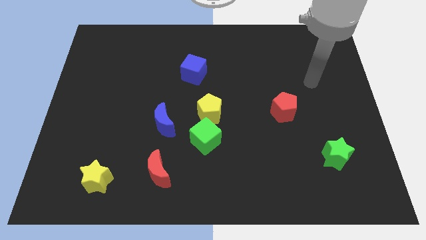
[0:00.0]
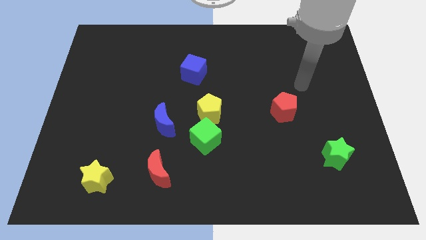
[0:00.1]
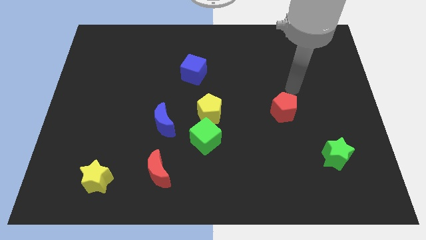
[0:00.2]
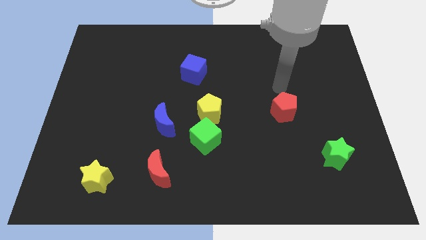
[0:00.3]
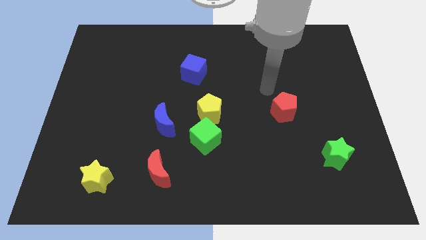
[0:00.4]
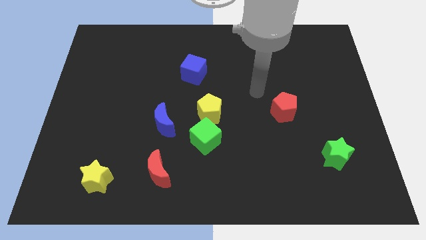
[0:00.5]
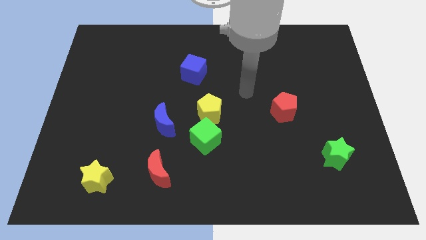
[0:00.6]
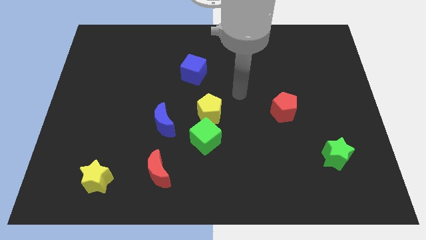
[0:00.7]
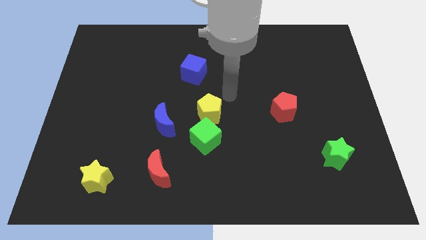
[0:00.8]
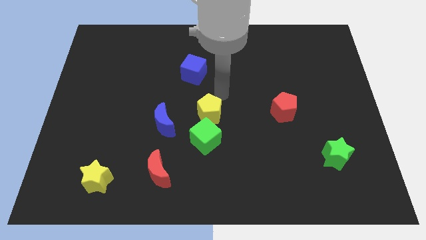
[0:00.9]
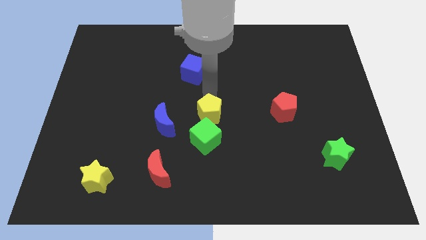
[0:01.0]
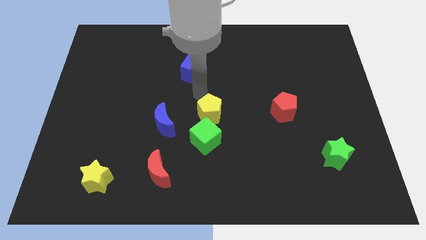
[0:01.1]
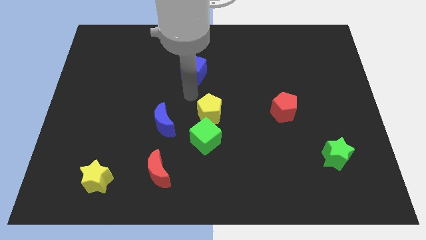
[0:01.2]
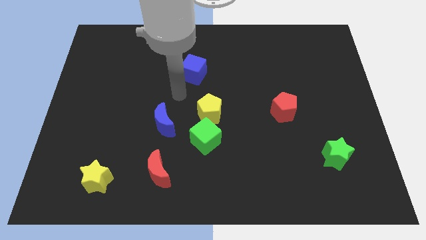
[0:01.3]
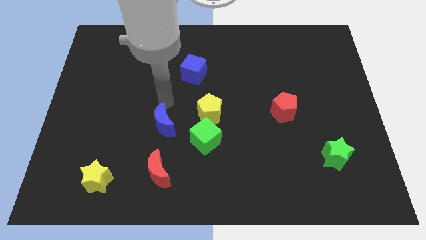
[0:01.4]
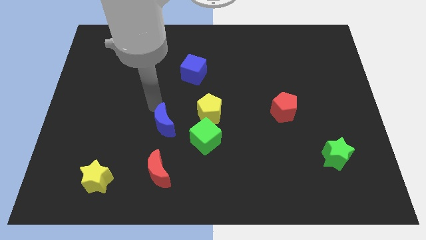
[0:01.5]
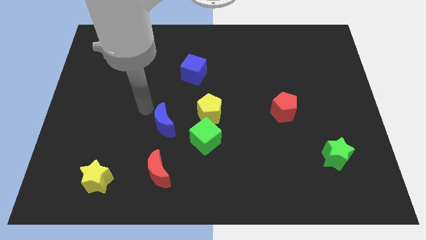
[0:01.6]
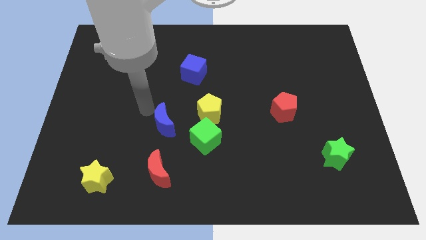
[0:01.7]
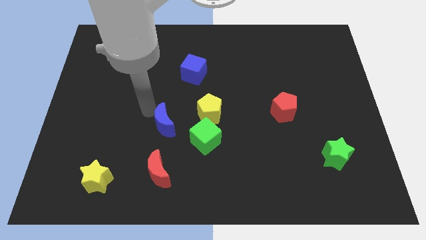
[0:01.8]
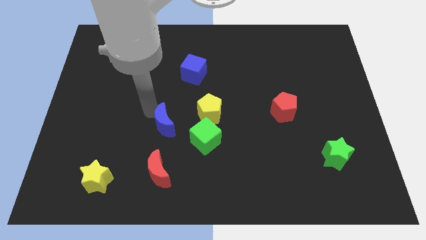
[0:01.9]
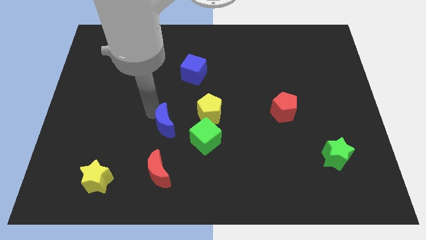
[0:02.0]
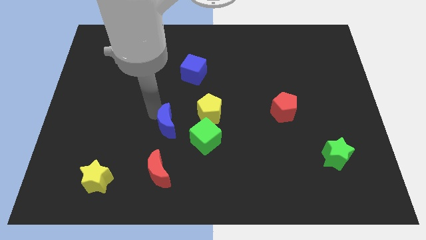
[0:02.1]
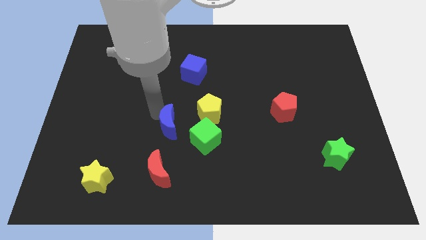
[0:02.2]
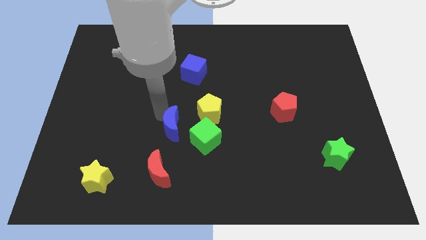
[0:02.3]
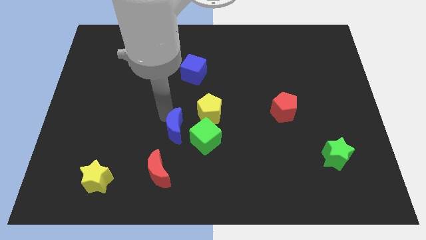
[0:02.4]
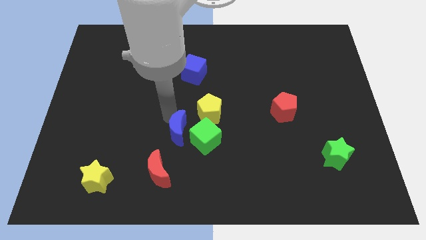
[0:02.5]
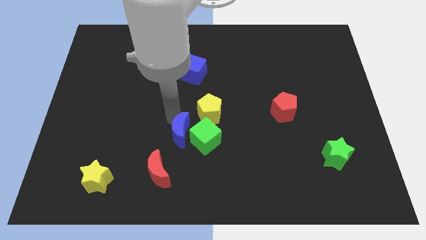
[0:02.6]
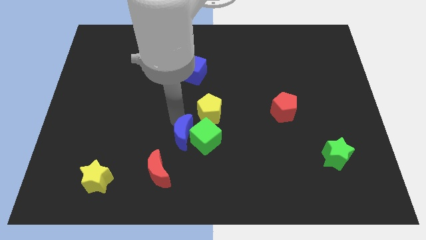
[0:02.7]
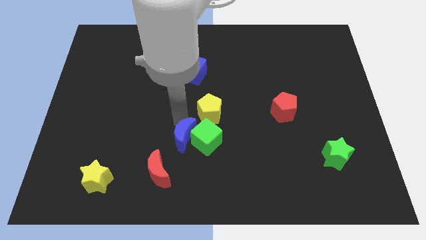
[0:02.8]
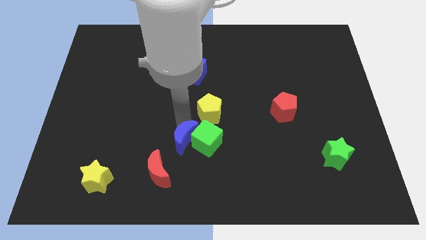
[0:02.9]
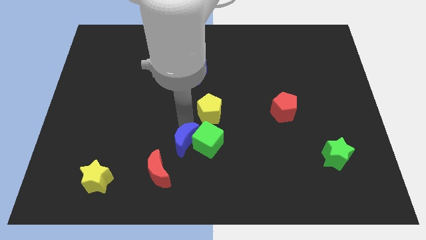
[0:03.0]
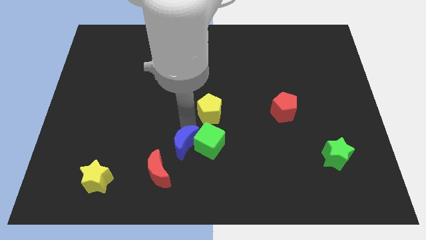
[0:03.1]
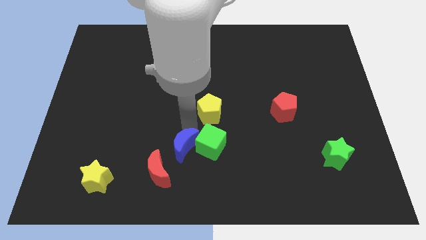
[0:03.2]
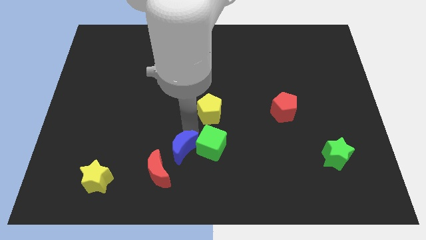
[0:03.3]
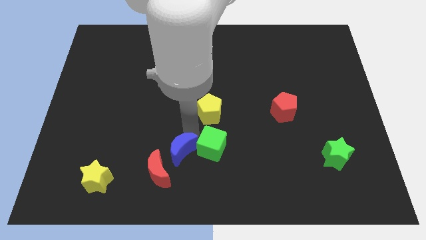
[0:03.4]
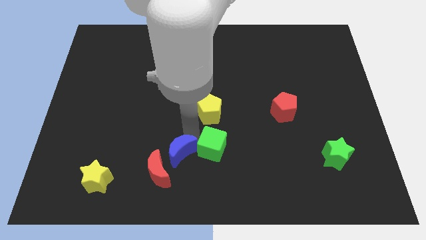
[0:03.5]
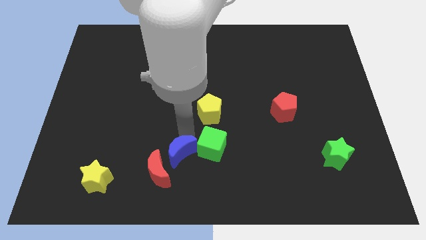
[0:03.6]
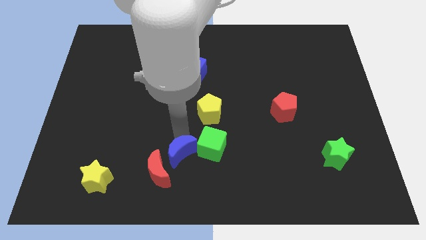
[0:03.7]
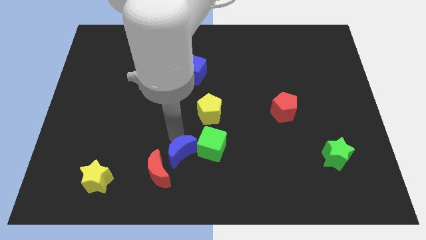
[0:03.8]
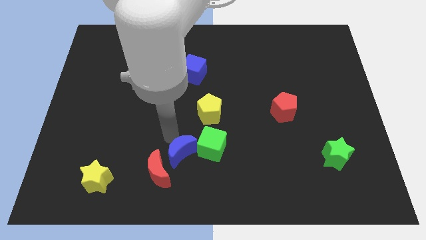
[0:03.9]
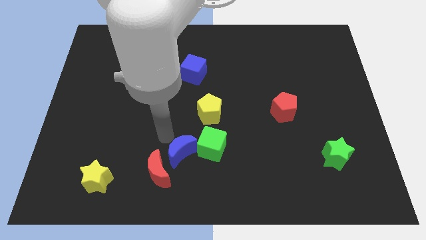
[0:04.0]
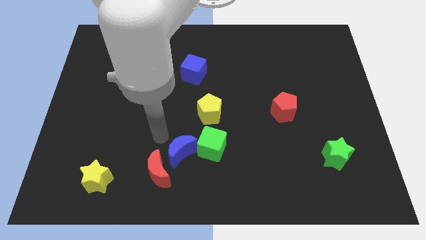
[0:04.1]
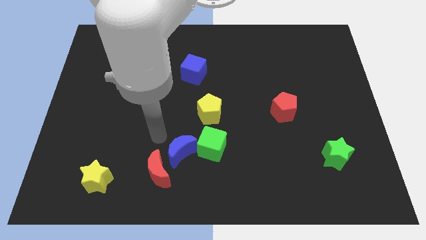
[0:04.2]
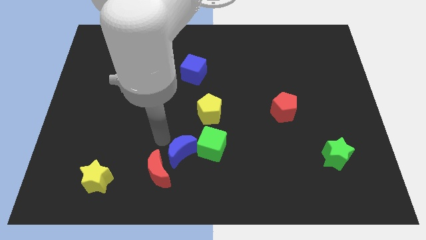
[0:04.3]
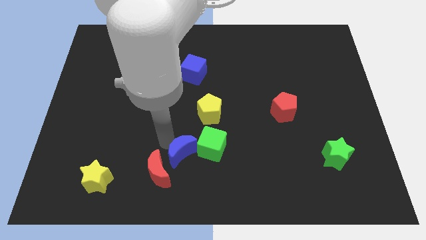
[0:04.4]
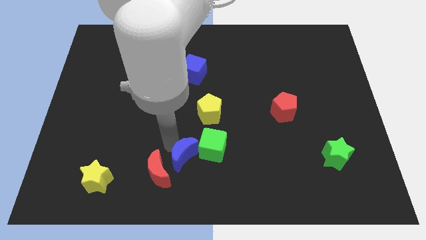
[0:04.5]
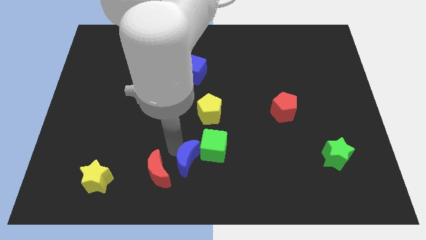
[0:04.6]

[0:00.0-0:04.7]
put the blue moon to the bottom side

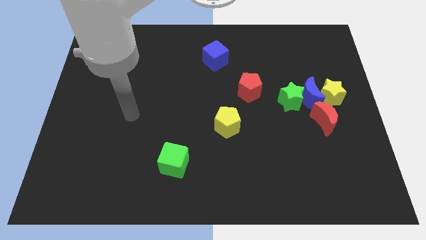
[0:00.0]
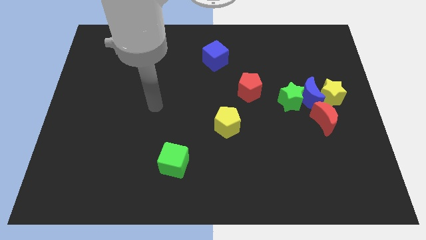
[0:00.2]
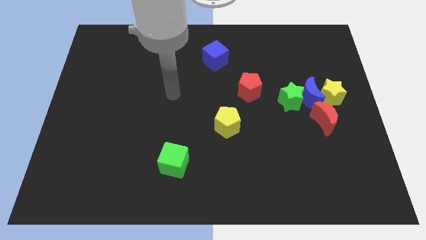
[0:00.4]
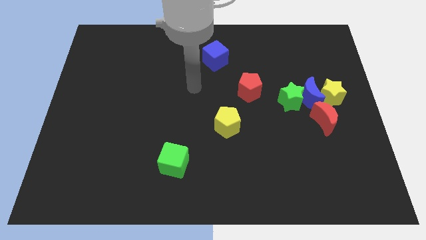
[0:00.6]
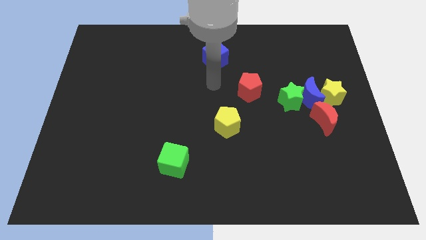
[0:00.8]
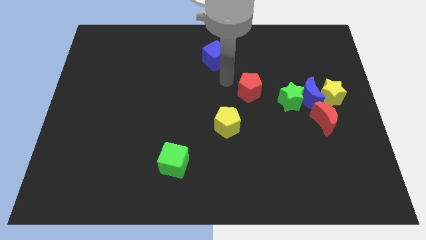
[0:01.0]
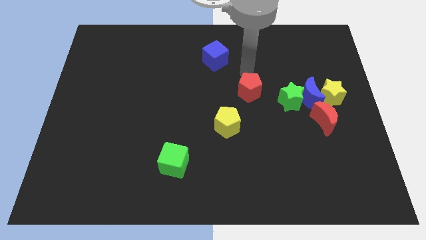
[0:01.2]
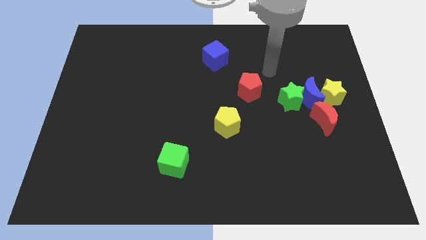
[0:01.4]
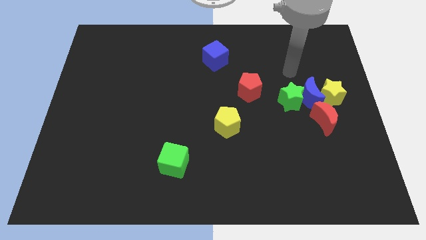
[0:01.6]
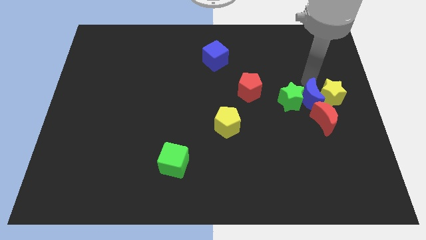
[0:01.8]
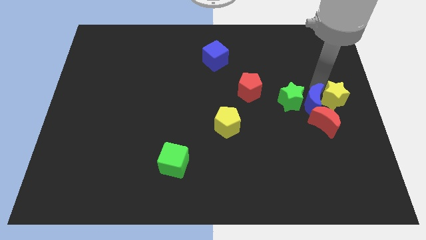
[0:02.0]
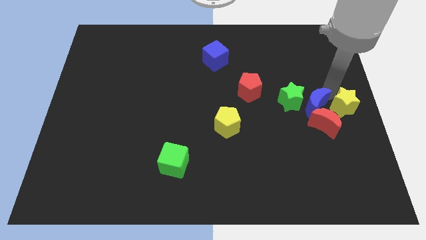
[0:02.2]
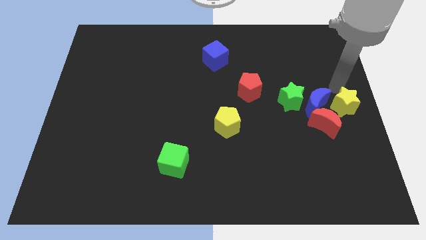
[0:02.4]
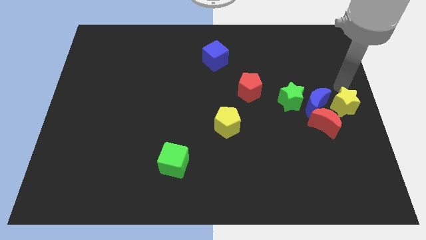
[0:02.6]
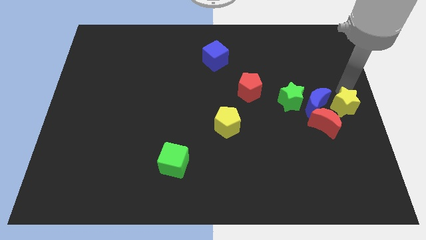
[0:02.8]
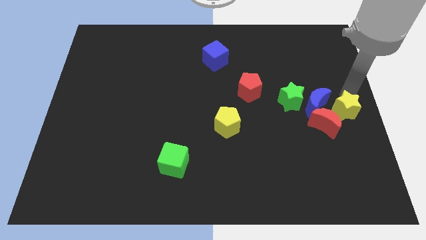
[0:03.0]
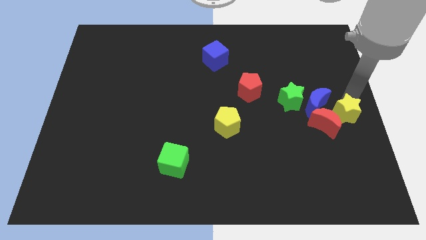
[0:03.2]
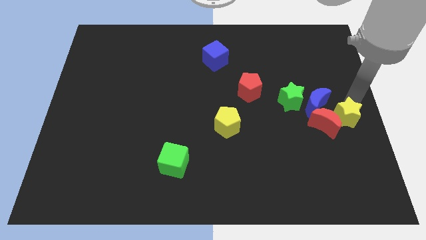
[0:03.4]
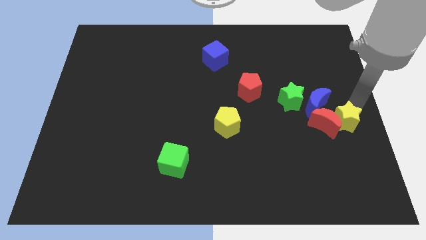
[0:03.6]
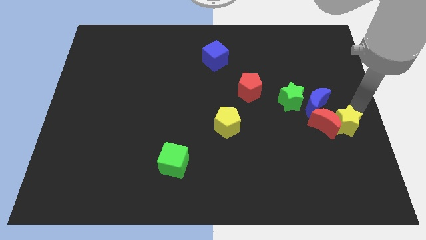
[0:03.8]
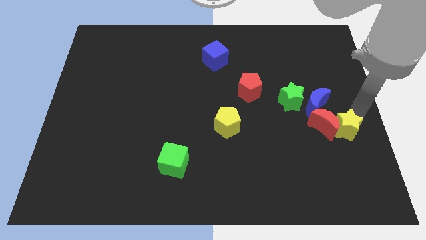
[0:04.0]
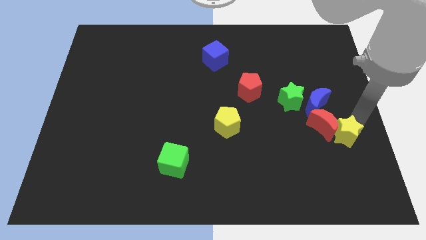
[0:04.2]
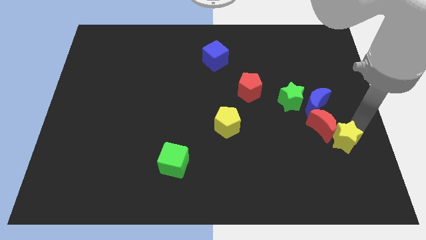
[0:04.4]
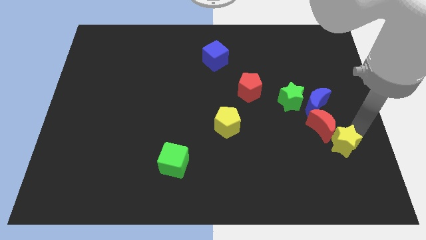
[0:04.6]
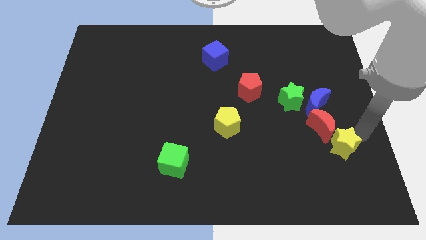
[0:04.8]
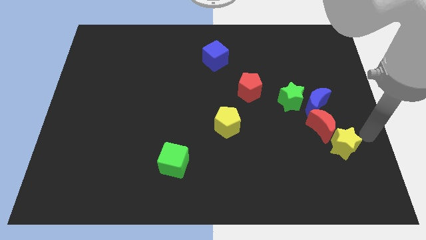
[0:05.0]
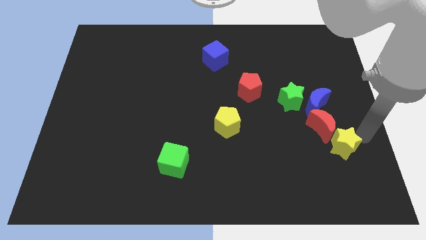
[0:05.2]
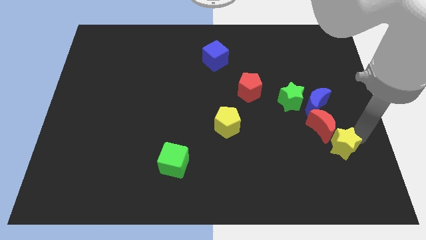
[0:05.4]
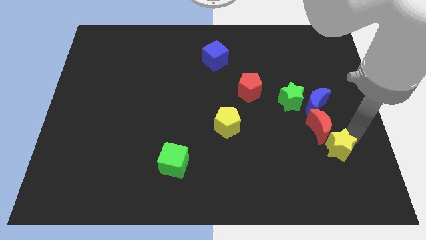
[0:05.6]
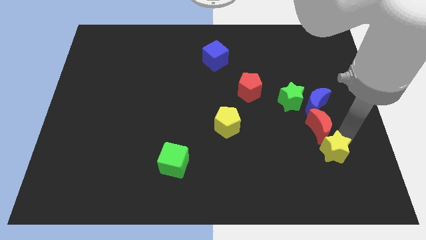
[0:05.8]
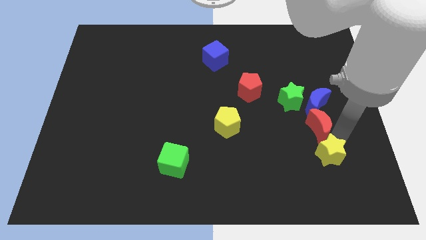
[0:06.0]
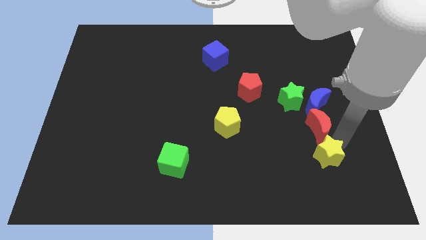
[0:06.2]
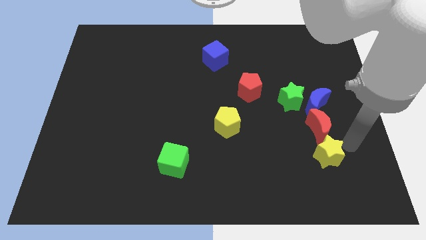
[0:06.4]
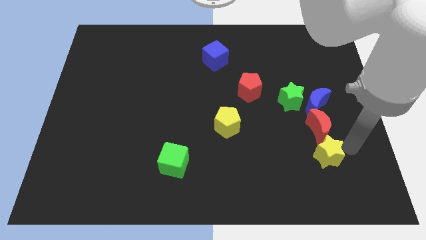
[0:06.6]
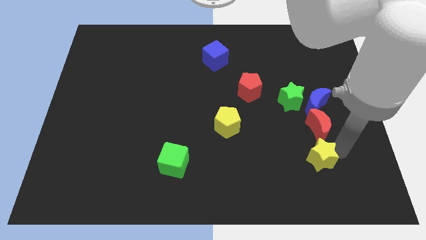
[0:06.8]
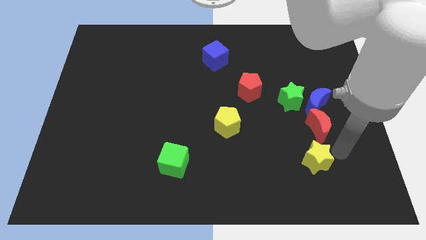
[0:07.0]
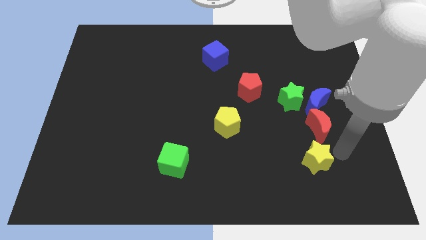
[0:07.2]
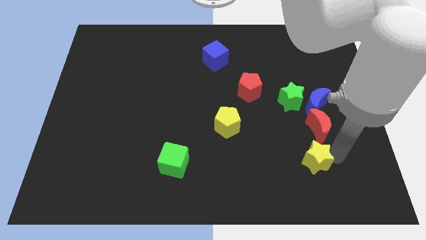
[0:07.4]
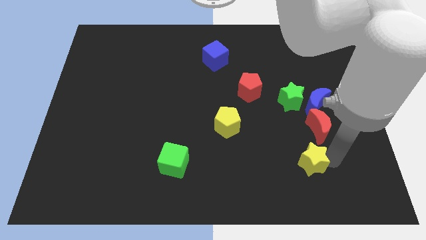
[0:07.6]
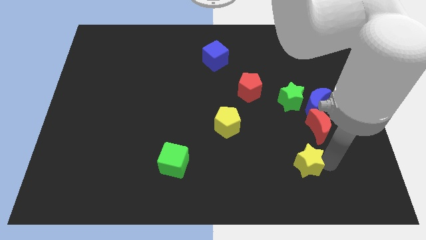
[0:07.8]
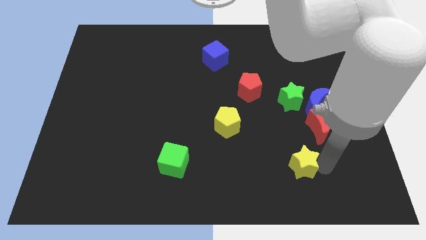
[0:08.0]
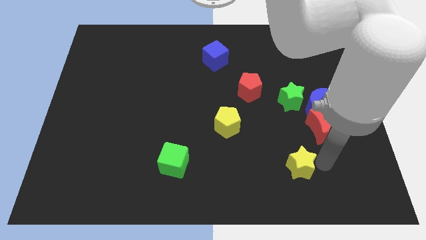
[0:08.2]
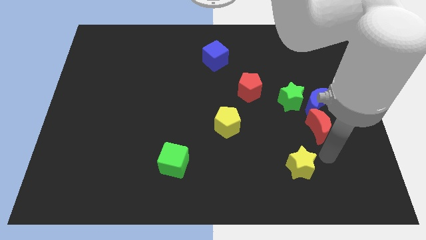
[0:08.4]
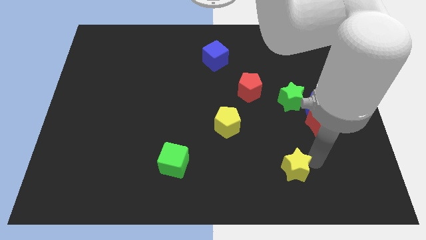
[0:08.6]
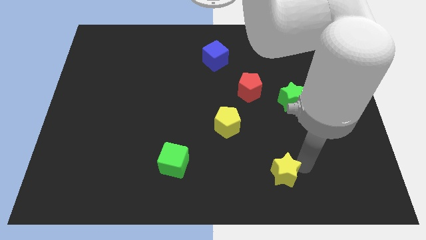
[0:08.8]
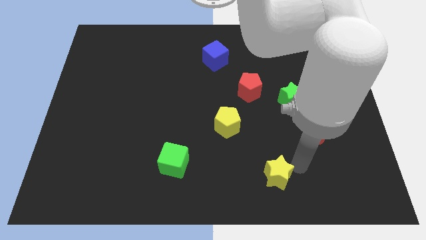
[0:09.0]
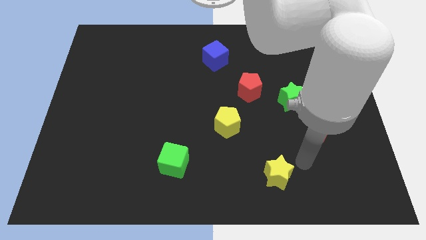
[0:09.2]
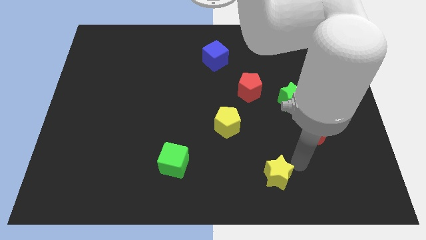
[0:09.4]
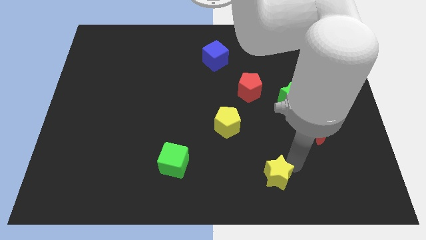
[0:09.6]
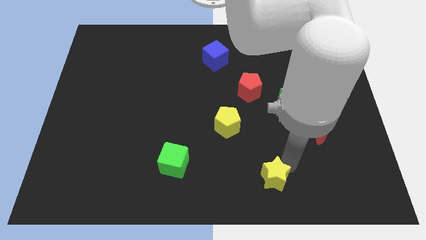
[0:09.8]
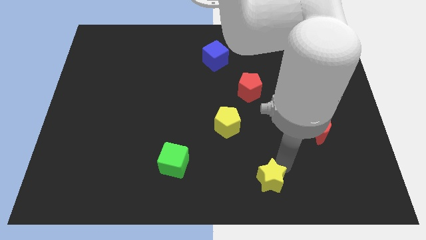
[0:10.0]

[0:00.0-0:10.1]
move the yellow star to the bottom side
